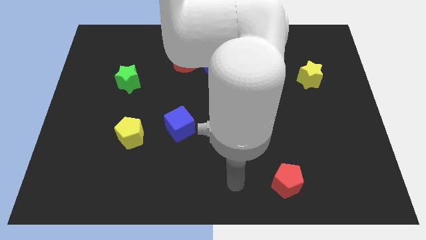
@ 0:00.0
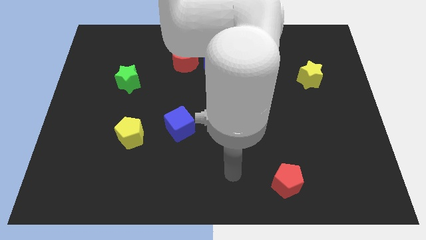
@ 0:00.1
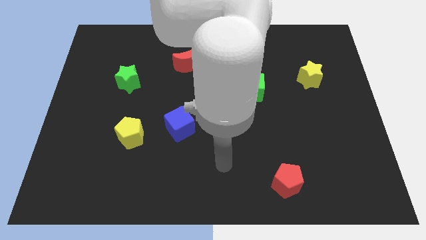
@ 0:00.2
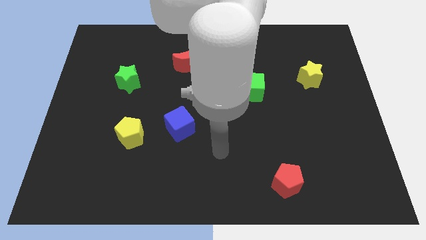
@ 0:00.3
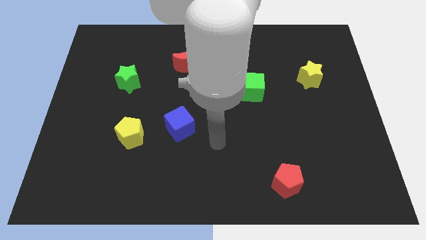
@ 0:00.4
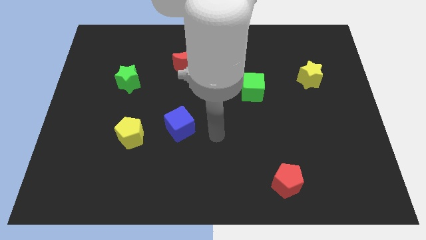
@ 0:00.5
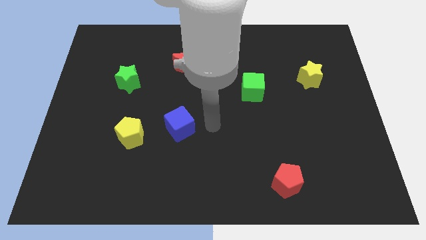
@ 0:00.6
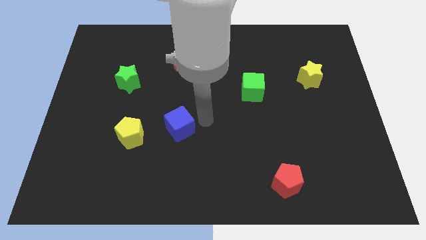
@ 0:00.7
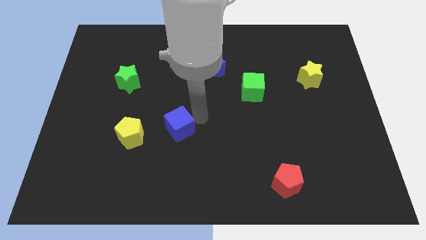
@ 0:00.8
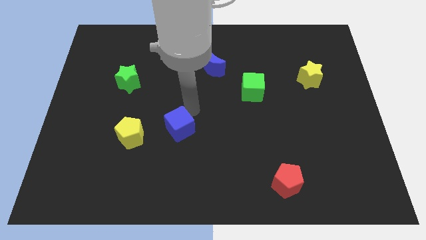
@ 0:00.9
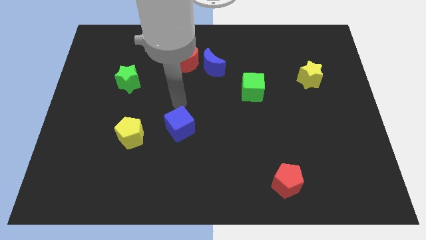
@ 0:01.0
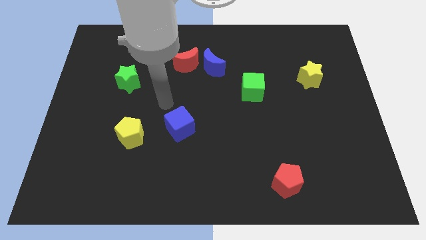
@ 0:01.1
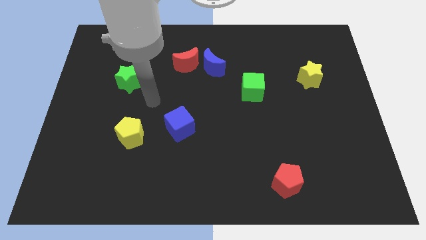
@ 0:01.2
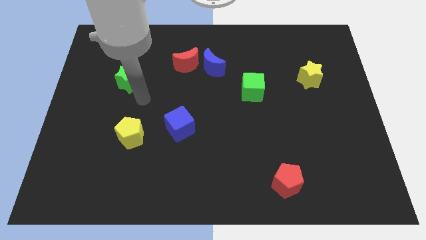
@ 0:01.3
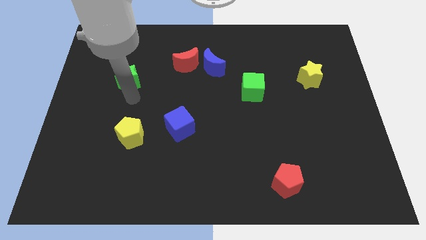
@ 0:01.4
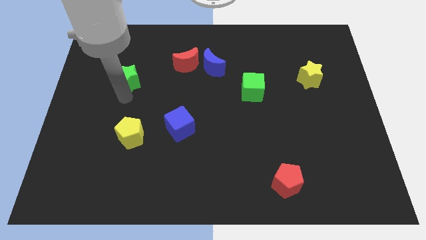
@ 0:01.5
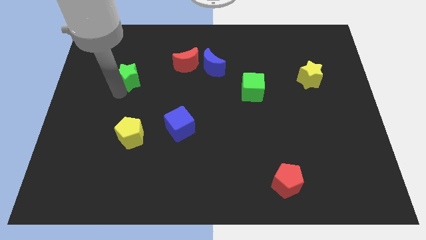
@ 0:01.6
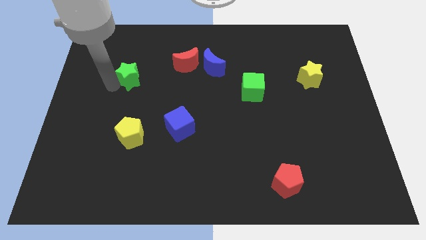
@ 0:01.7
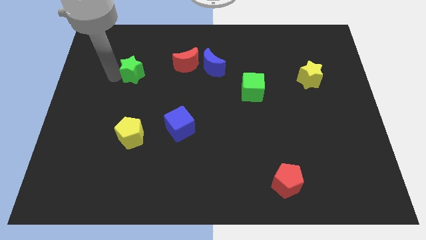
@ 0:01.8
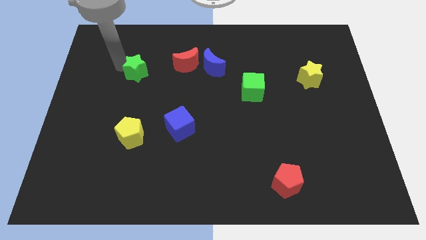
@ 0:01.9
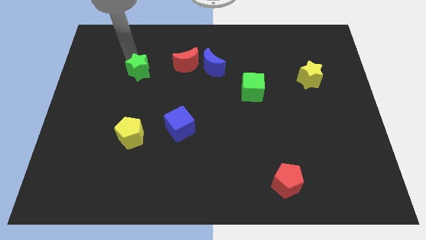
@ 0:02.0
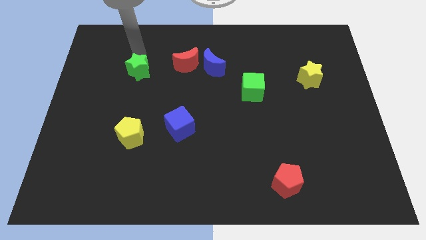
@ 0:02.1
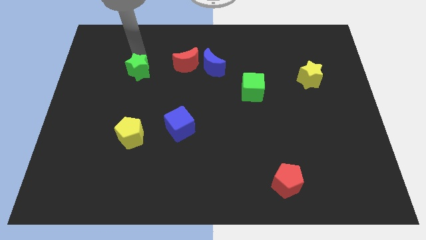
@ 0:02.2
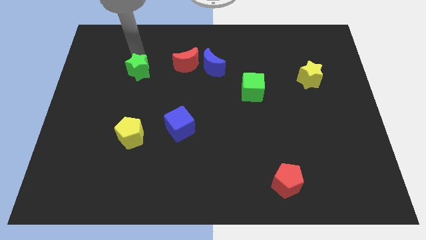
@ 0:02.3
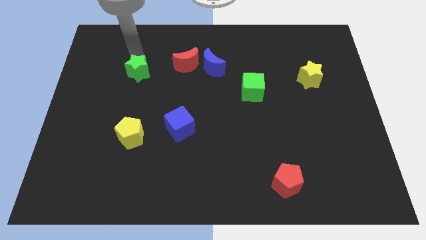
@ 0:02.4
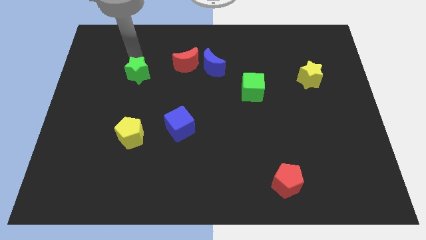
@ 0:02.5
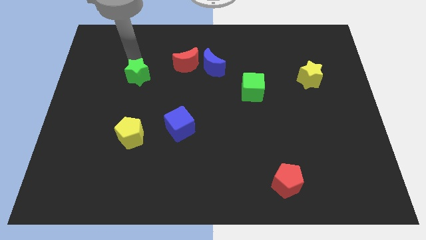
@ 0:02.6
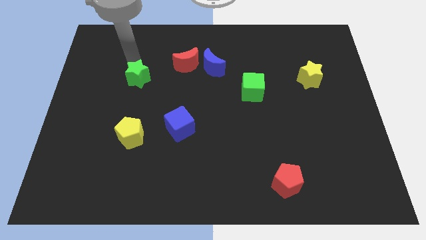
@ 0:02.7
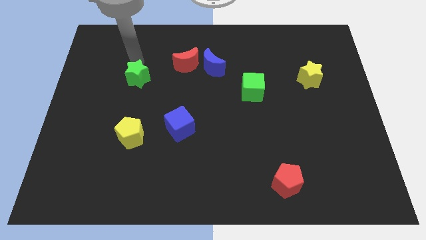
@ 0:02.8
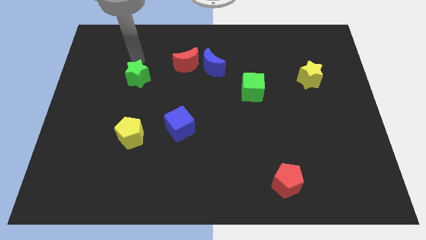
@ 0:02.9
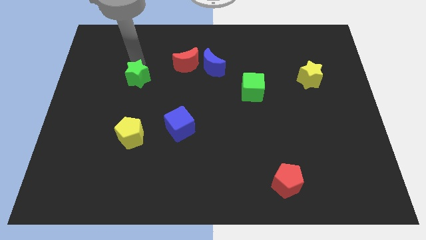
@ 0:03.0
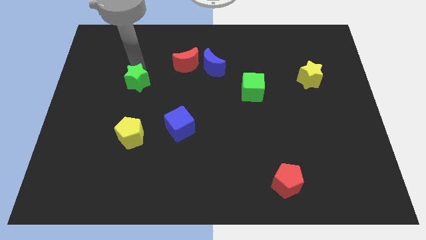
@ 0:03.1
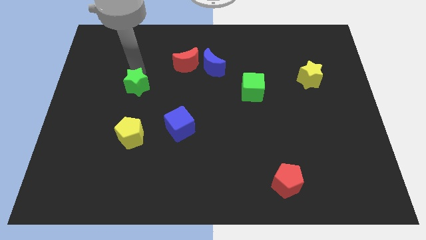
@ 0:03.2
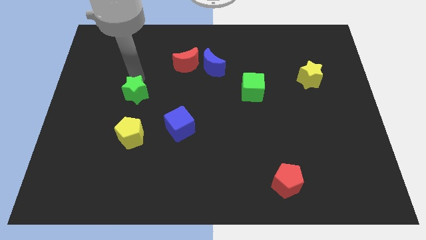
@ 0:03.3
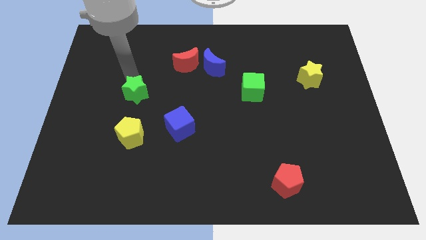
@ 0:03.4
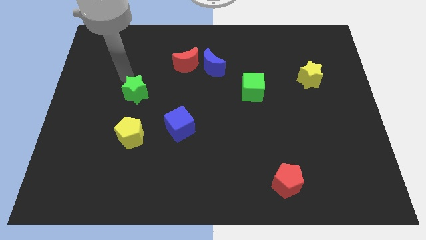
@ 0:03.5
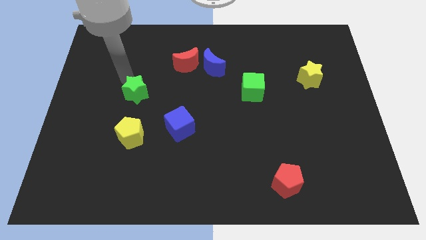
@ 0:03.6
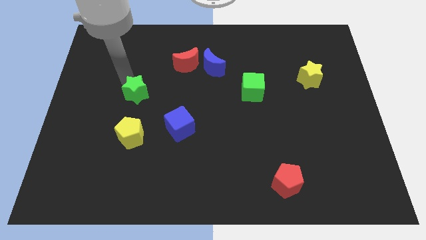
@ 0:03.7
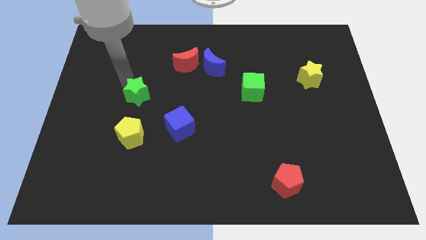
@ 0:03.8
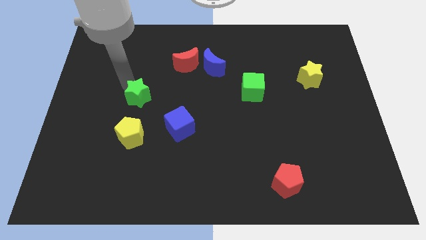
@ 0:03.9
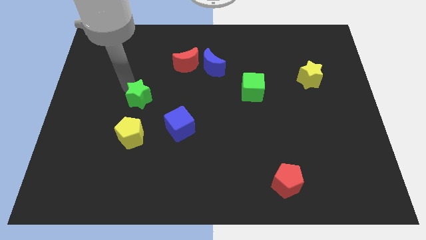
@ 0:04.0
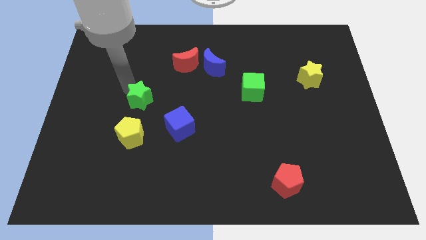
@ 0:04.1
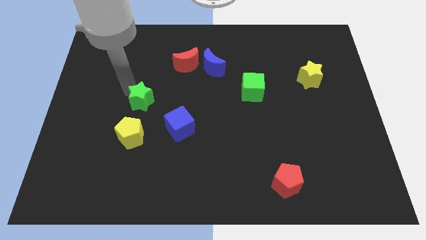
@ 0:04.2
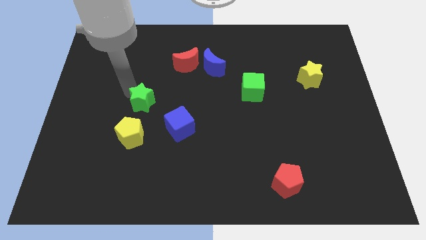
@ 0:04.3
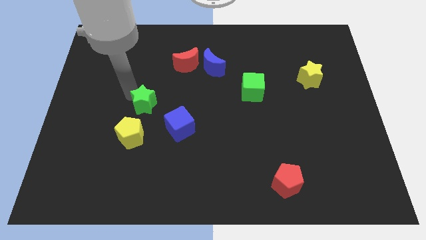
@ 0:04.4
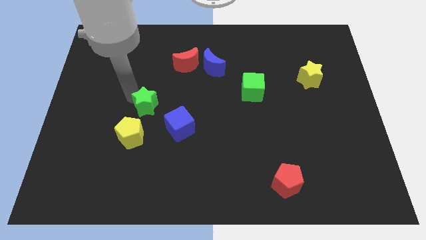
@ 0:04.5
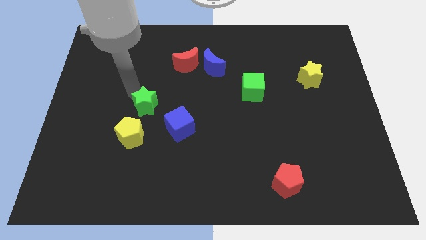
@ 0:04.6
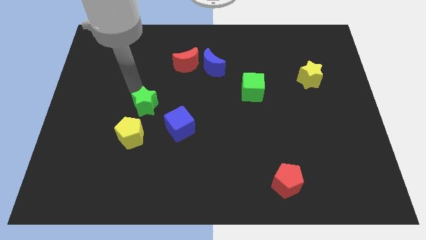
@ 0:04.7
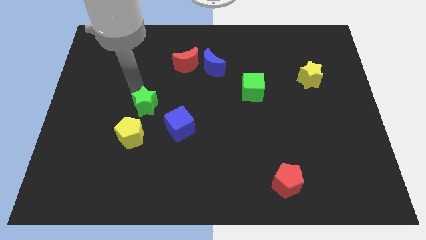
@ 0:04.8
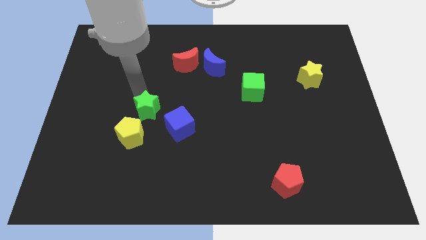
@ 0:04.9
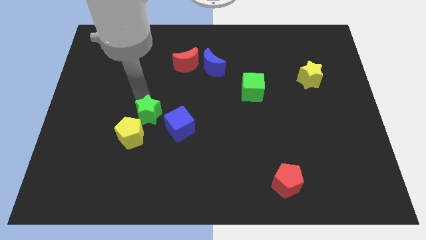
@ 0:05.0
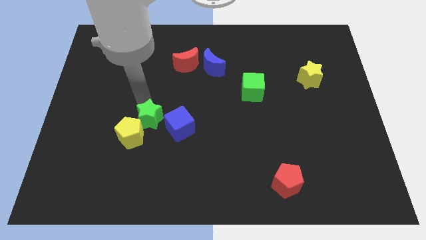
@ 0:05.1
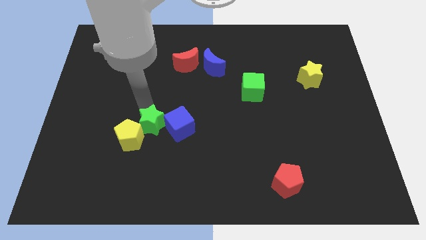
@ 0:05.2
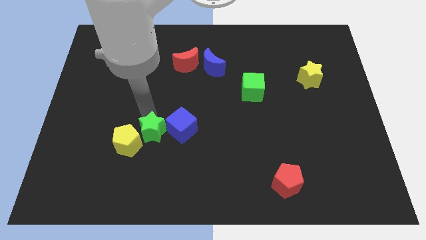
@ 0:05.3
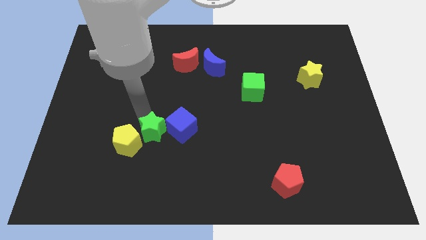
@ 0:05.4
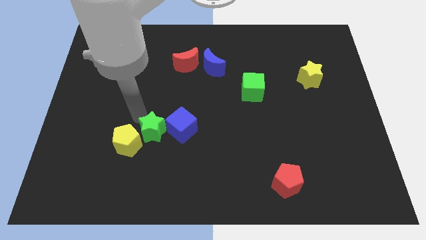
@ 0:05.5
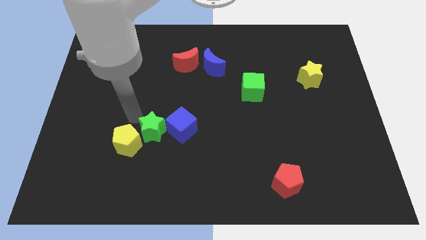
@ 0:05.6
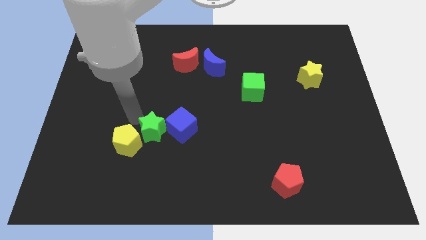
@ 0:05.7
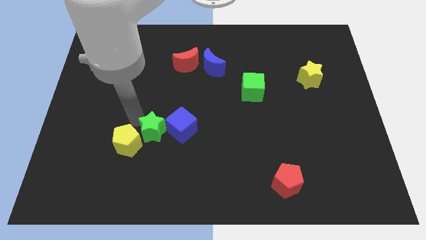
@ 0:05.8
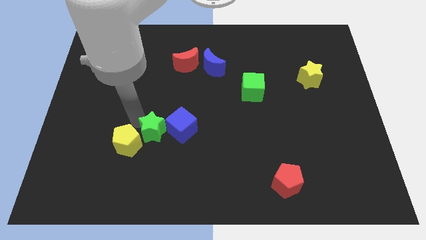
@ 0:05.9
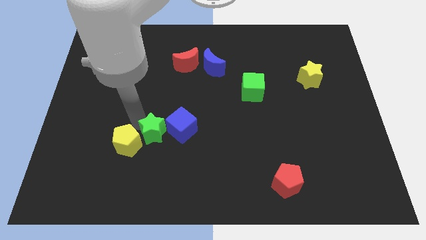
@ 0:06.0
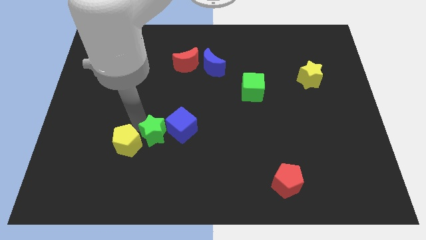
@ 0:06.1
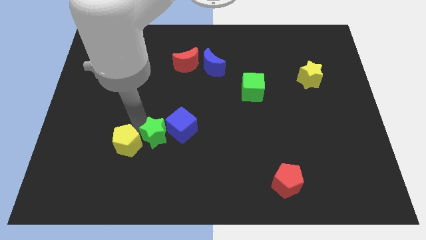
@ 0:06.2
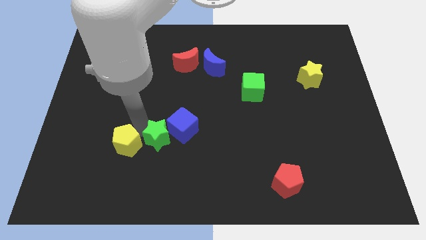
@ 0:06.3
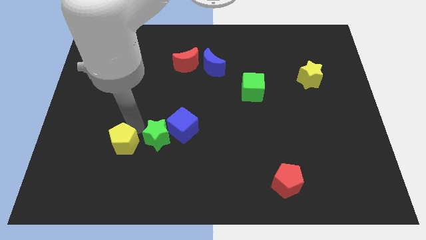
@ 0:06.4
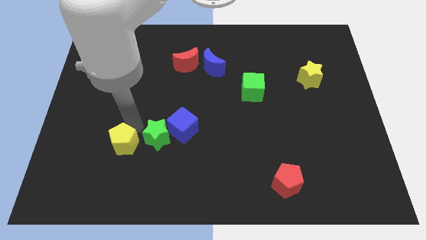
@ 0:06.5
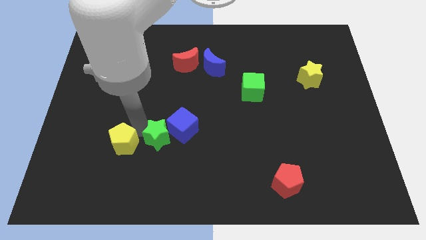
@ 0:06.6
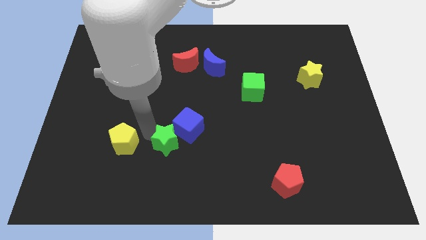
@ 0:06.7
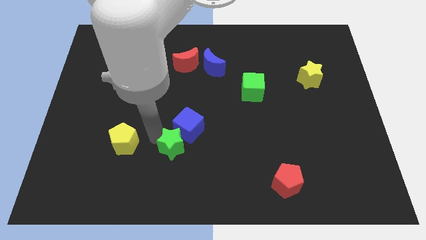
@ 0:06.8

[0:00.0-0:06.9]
push the green star down and then to the right

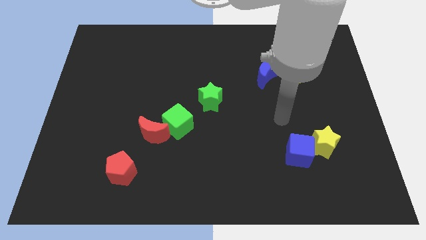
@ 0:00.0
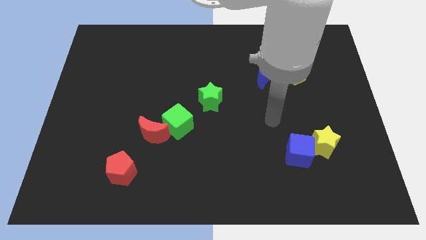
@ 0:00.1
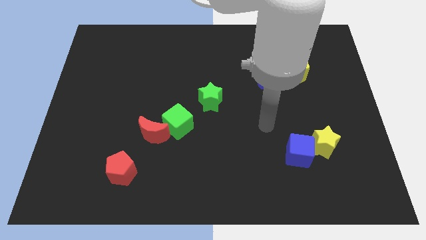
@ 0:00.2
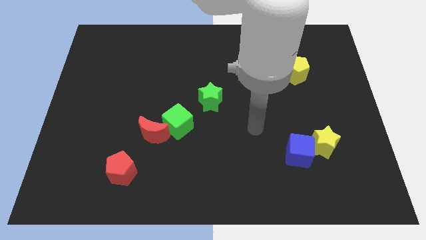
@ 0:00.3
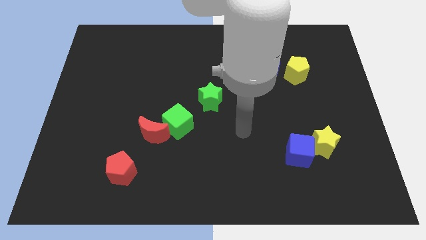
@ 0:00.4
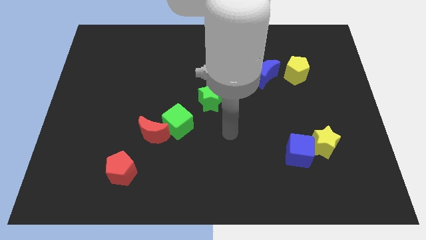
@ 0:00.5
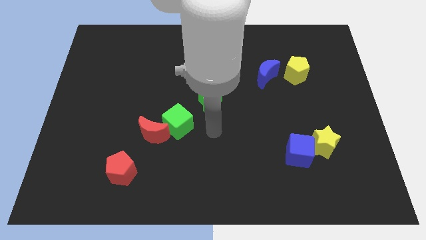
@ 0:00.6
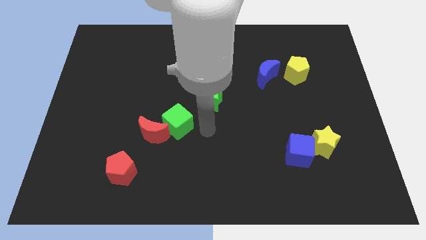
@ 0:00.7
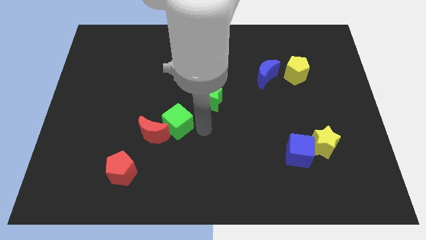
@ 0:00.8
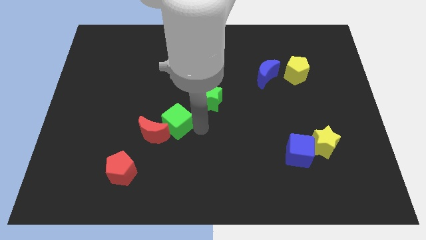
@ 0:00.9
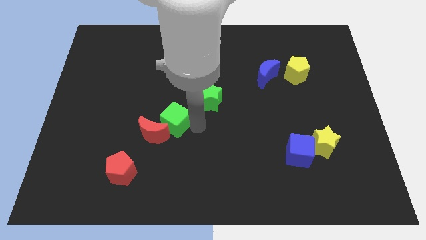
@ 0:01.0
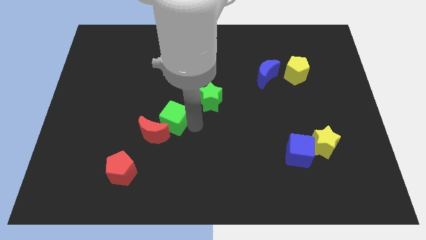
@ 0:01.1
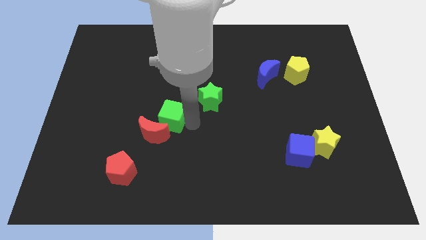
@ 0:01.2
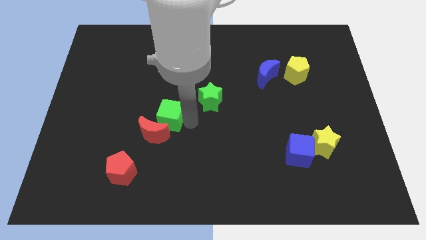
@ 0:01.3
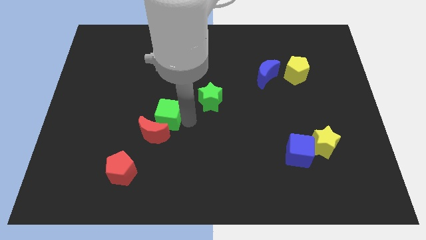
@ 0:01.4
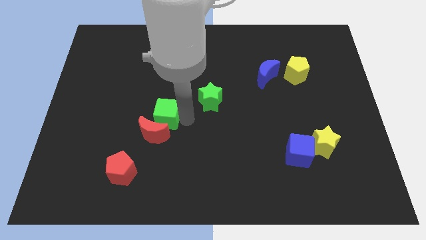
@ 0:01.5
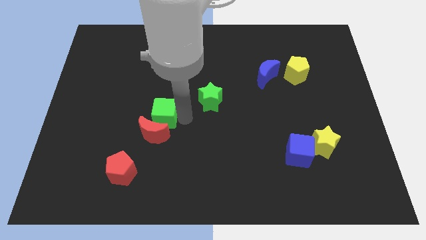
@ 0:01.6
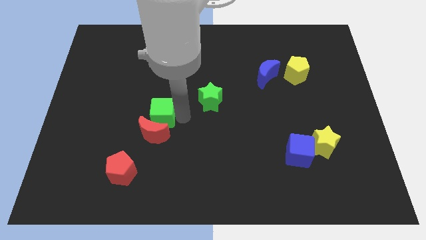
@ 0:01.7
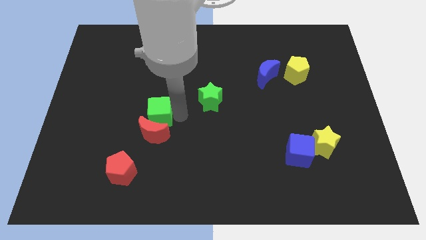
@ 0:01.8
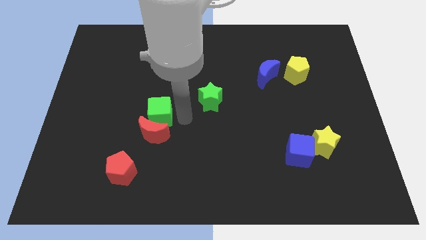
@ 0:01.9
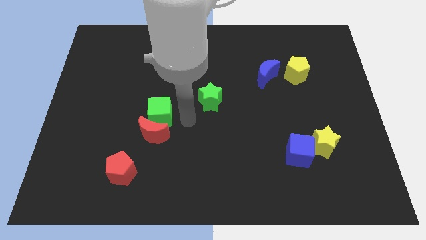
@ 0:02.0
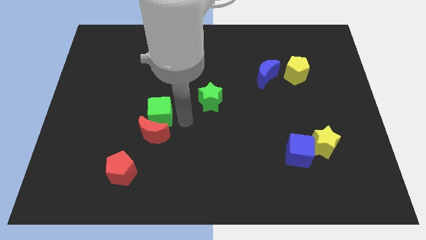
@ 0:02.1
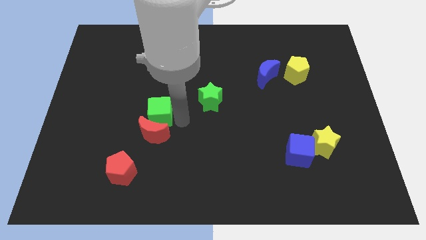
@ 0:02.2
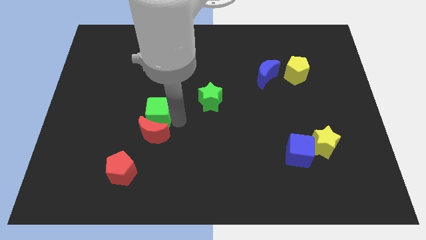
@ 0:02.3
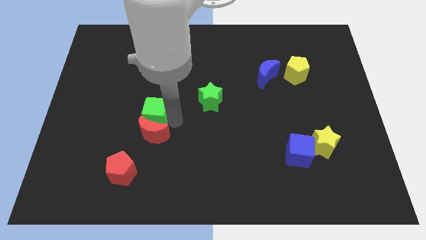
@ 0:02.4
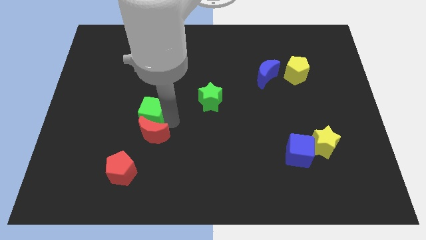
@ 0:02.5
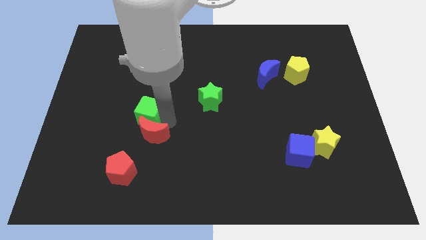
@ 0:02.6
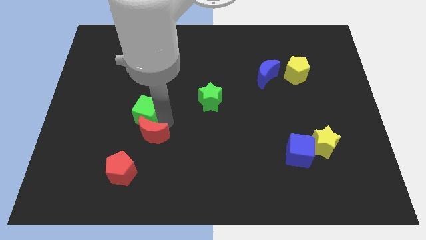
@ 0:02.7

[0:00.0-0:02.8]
slightly slide the green cube left
